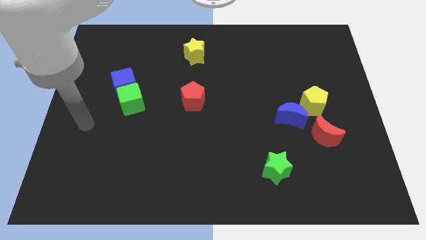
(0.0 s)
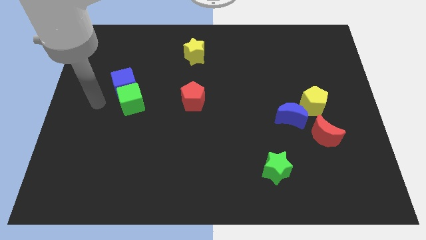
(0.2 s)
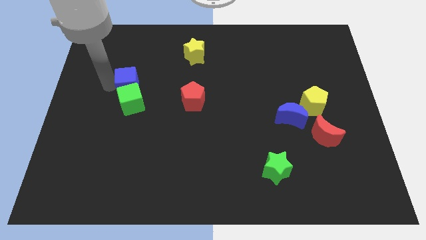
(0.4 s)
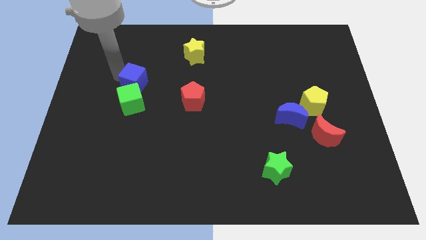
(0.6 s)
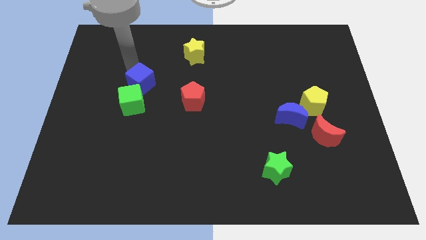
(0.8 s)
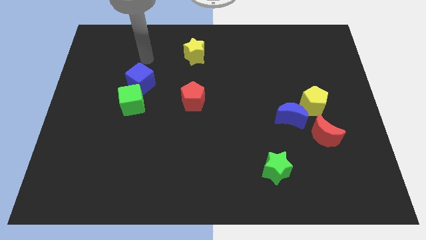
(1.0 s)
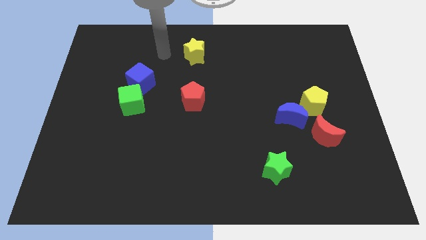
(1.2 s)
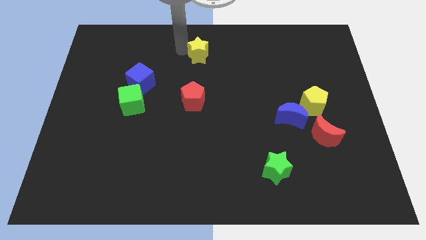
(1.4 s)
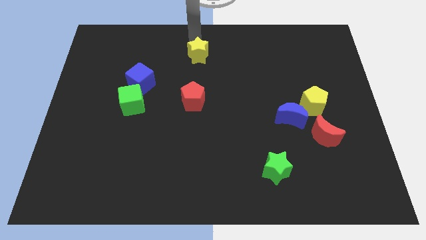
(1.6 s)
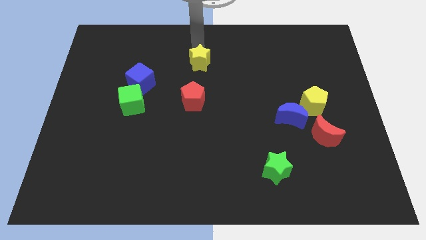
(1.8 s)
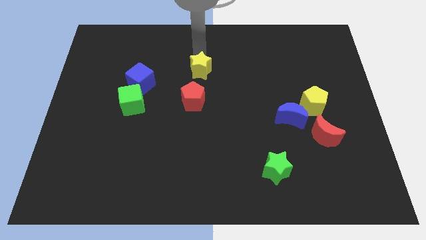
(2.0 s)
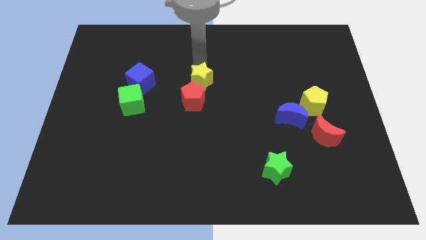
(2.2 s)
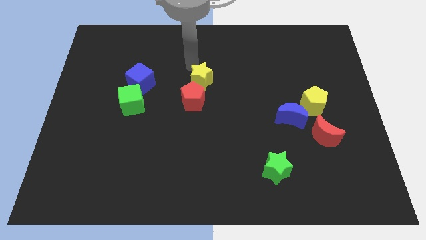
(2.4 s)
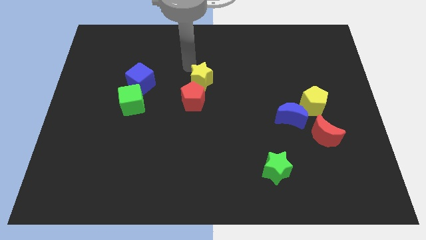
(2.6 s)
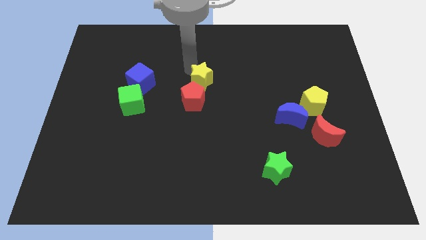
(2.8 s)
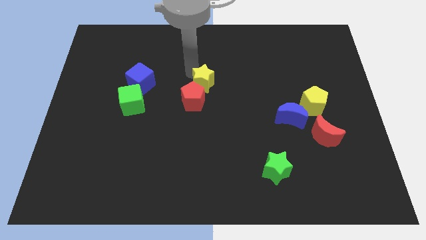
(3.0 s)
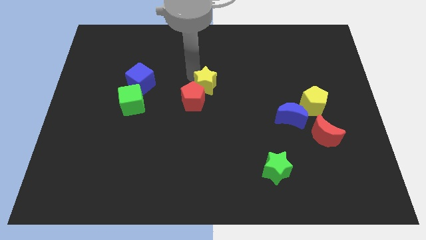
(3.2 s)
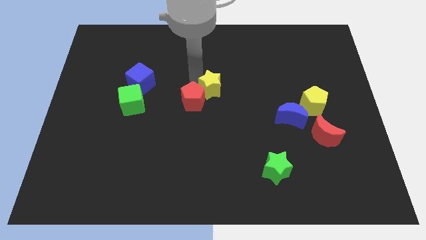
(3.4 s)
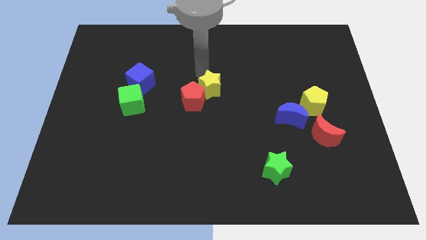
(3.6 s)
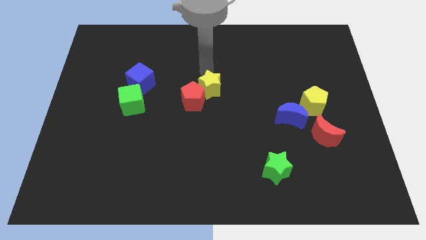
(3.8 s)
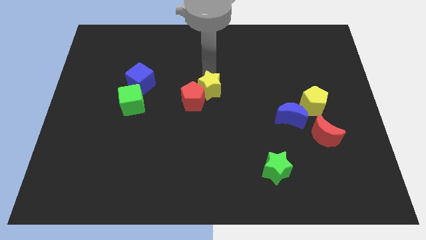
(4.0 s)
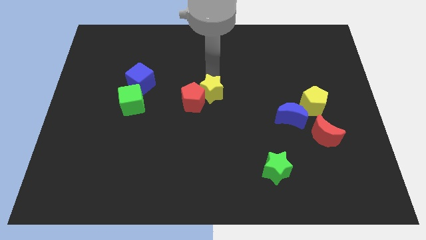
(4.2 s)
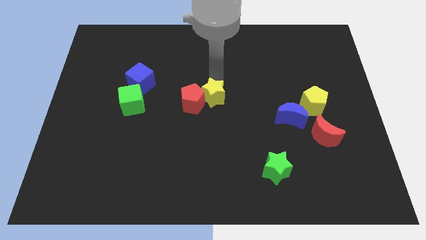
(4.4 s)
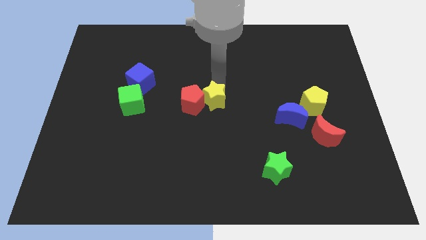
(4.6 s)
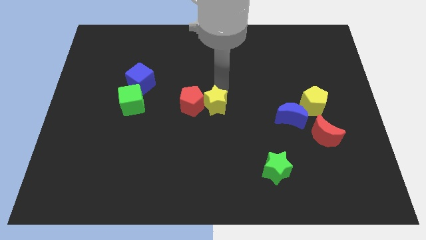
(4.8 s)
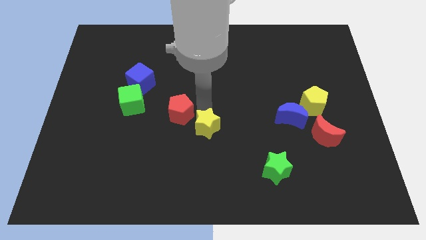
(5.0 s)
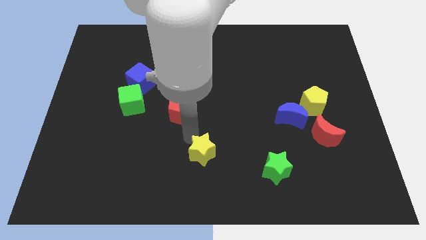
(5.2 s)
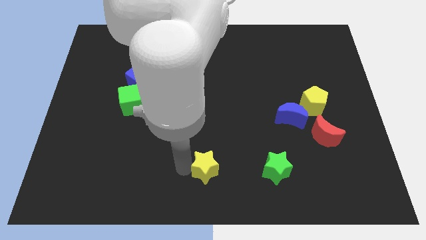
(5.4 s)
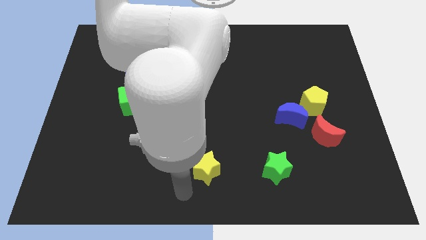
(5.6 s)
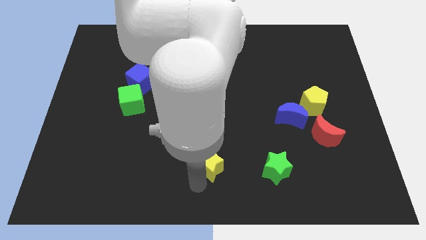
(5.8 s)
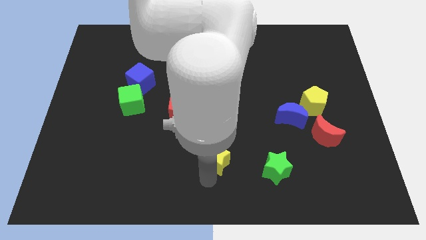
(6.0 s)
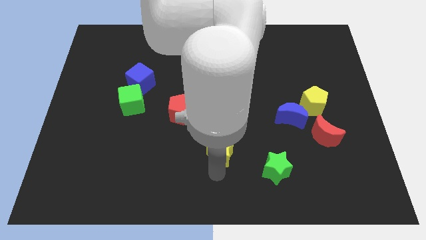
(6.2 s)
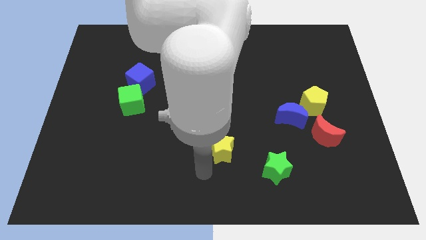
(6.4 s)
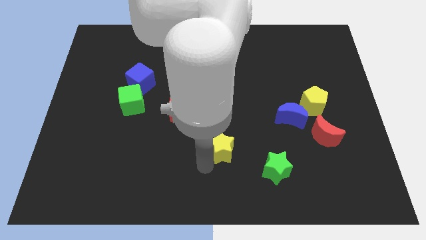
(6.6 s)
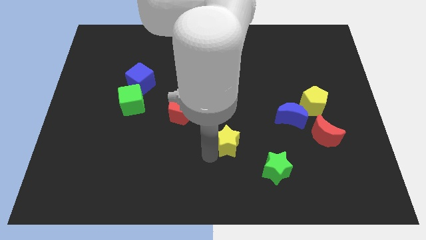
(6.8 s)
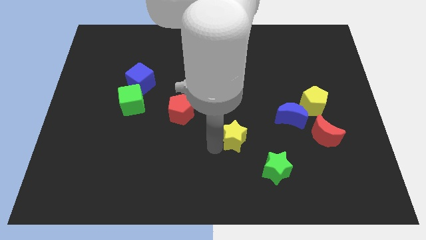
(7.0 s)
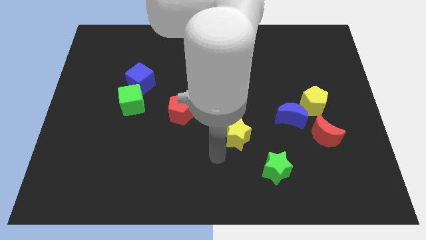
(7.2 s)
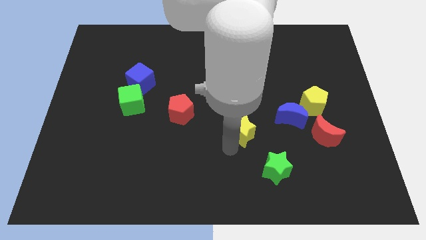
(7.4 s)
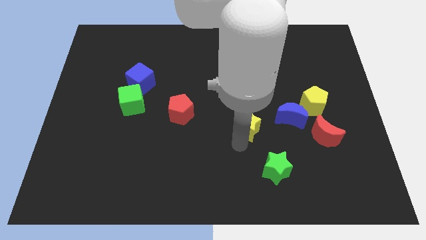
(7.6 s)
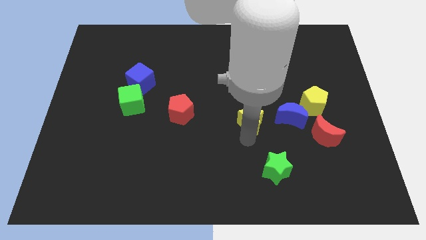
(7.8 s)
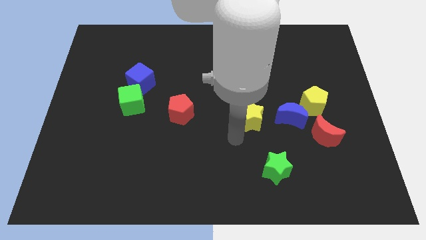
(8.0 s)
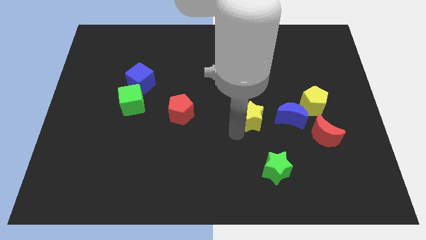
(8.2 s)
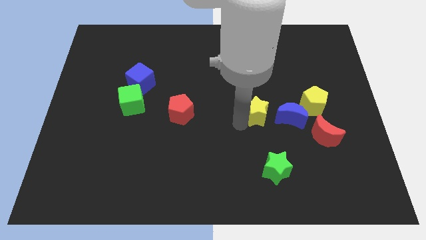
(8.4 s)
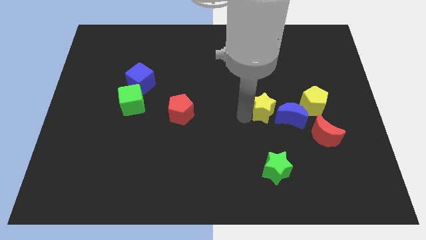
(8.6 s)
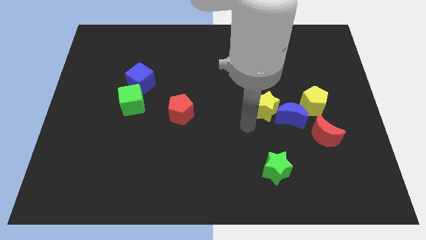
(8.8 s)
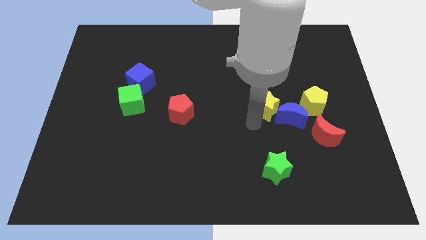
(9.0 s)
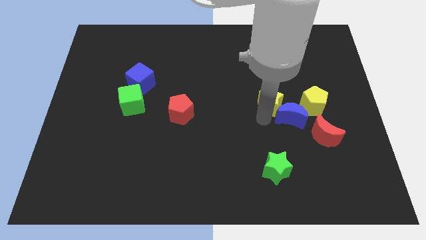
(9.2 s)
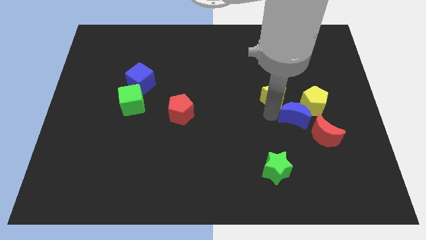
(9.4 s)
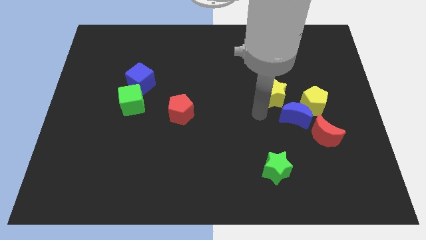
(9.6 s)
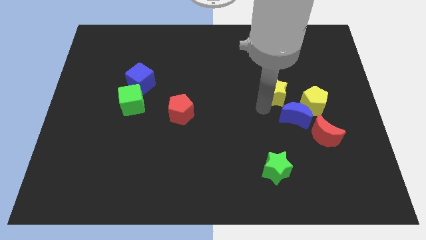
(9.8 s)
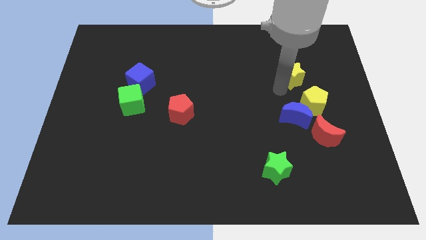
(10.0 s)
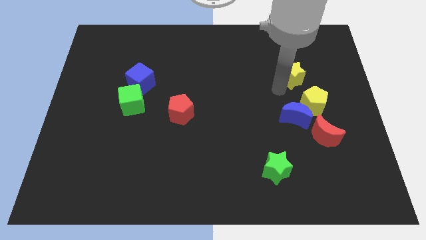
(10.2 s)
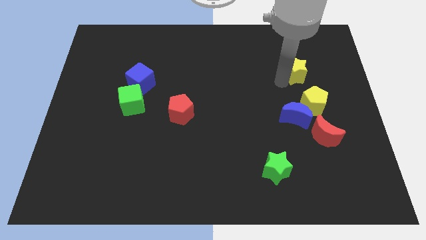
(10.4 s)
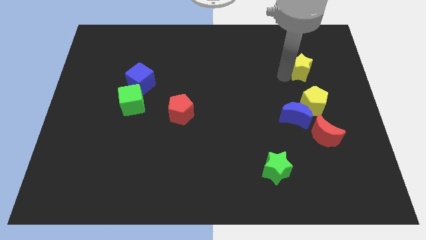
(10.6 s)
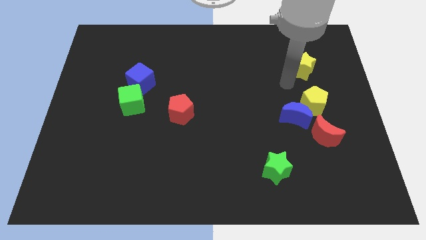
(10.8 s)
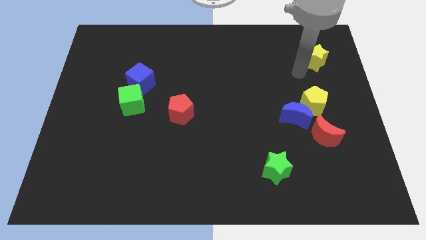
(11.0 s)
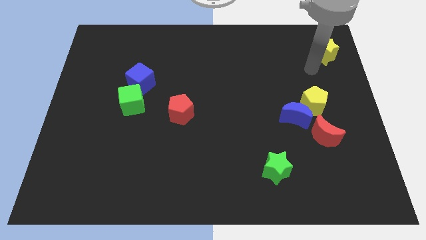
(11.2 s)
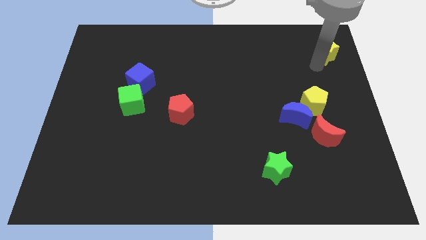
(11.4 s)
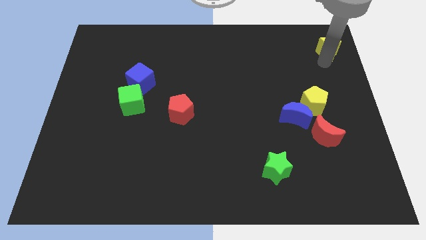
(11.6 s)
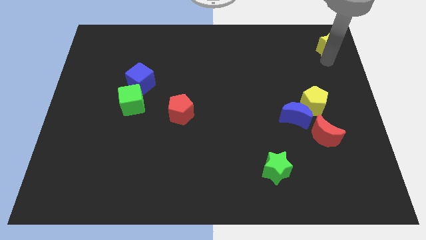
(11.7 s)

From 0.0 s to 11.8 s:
slide the yellow star to the top right corner

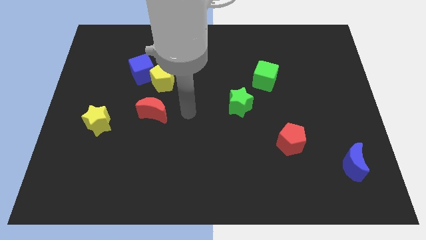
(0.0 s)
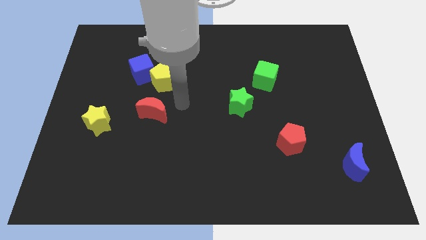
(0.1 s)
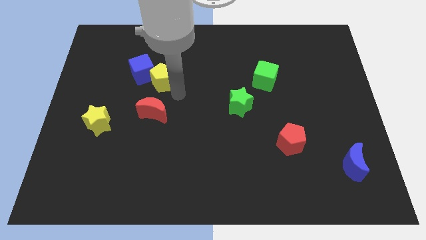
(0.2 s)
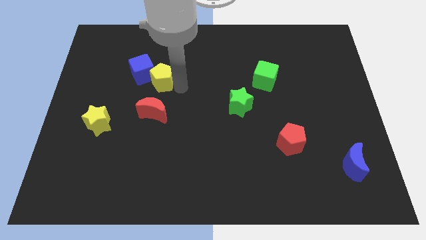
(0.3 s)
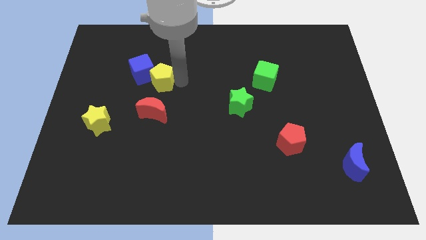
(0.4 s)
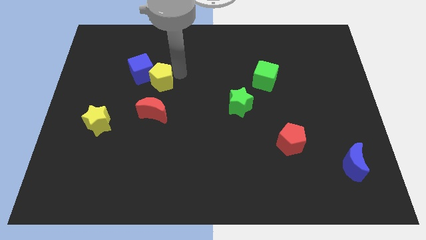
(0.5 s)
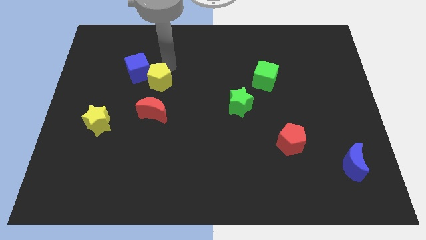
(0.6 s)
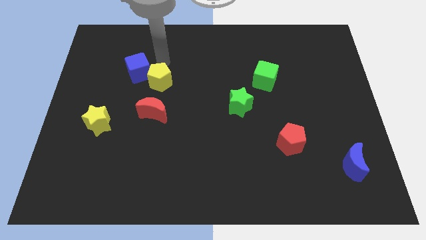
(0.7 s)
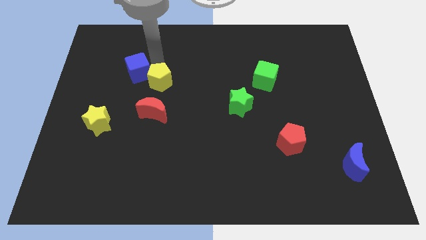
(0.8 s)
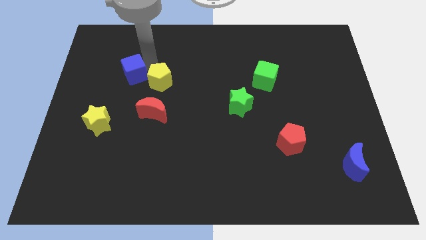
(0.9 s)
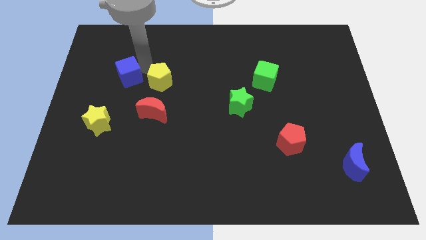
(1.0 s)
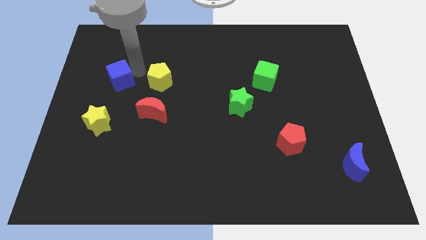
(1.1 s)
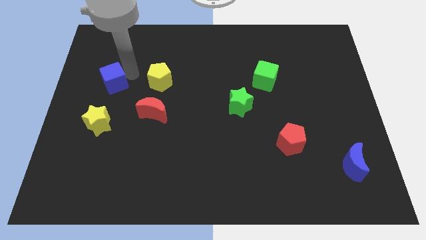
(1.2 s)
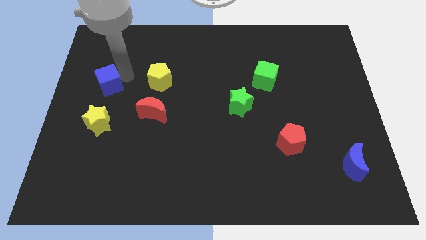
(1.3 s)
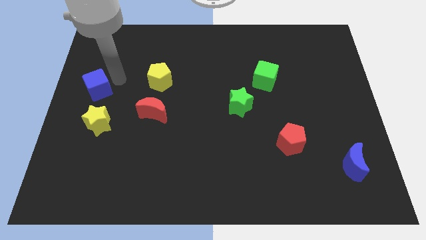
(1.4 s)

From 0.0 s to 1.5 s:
put the blue cube to the left side

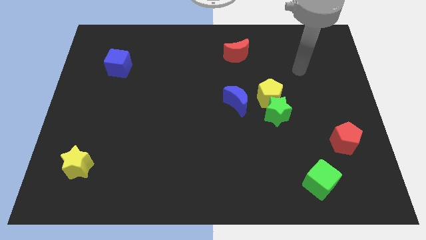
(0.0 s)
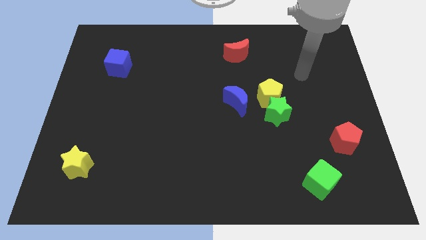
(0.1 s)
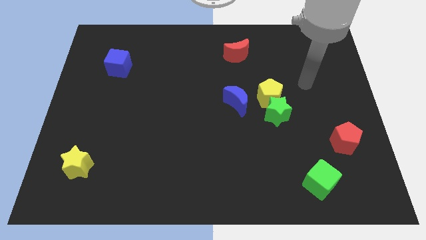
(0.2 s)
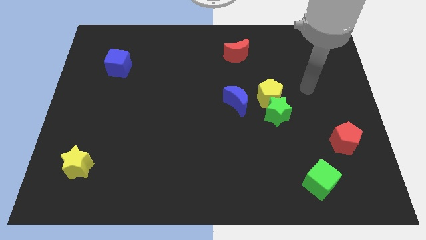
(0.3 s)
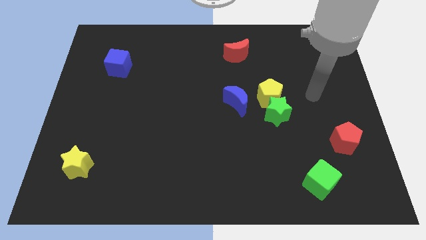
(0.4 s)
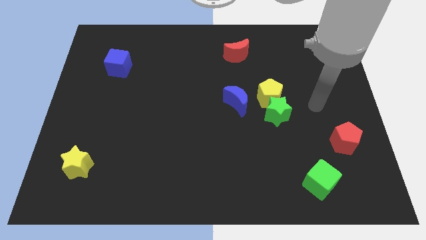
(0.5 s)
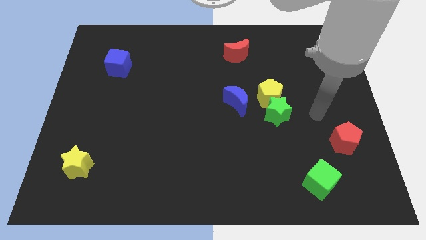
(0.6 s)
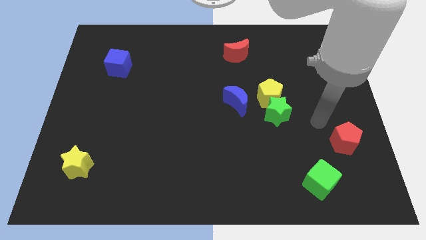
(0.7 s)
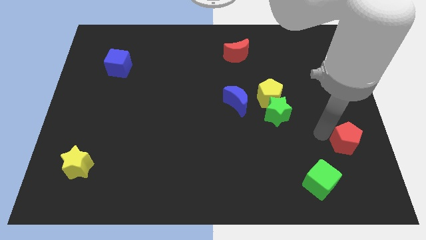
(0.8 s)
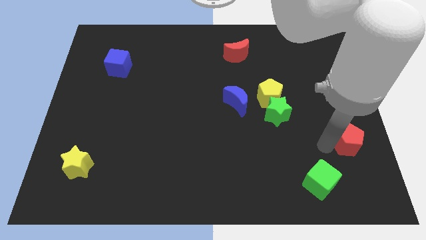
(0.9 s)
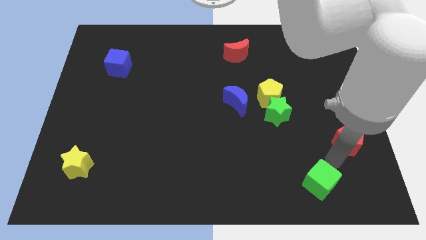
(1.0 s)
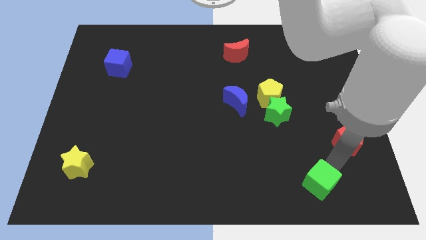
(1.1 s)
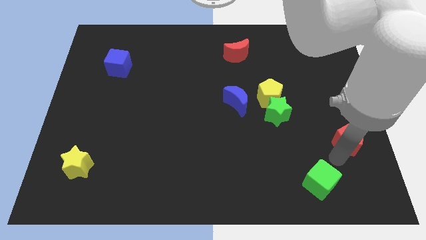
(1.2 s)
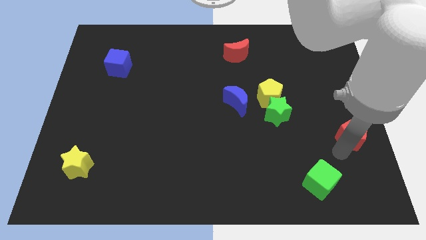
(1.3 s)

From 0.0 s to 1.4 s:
push the red pentagon to the center right
